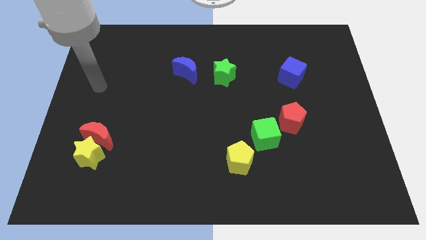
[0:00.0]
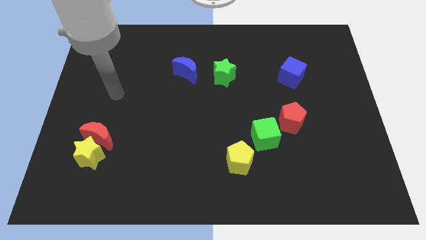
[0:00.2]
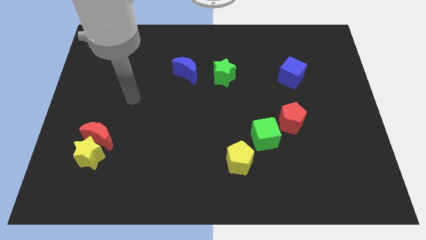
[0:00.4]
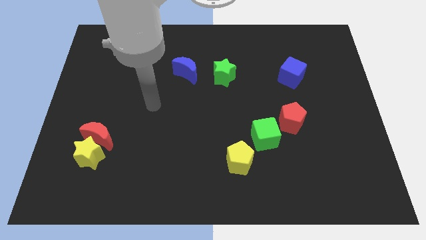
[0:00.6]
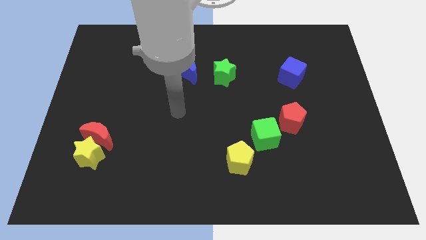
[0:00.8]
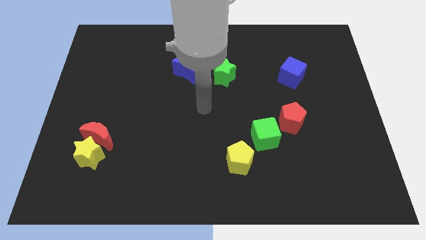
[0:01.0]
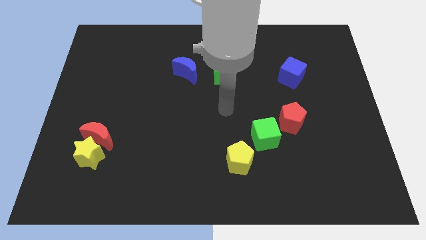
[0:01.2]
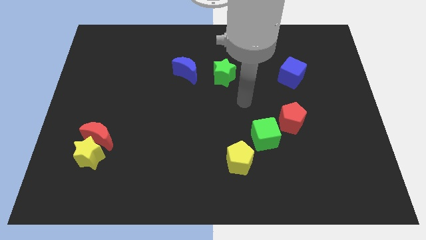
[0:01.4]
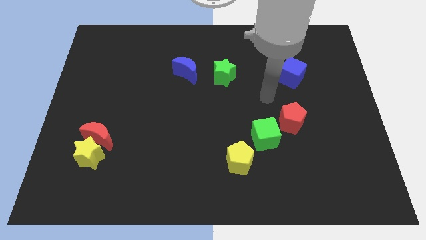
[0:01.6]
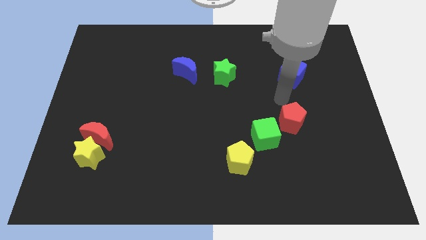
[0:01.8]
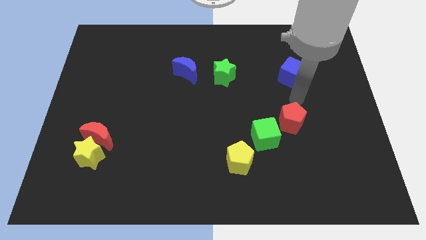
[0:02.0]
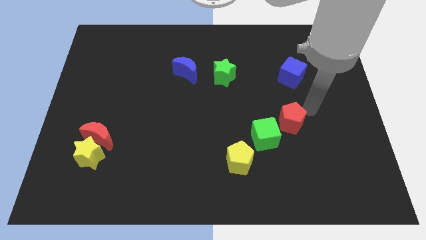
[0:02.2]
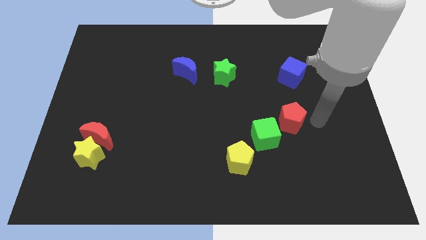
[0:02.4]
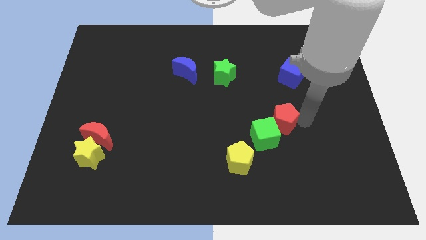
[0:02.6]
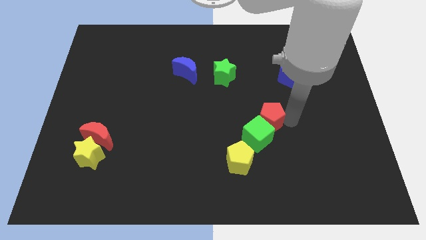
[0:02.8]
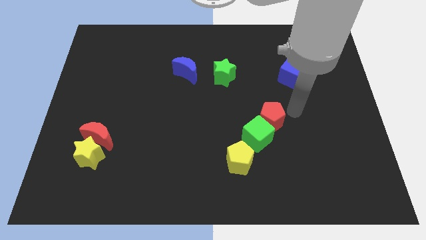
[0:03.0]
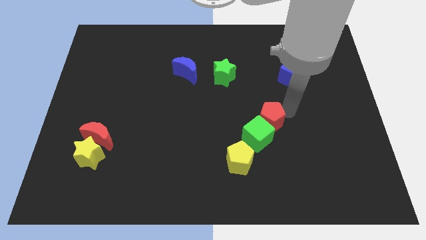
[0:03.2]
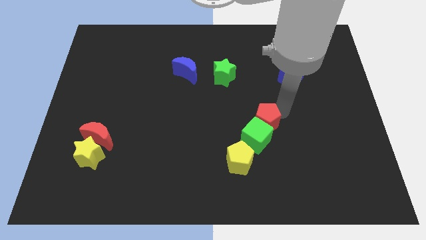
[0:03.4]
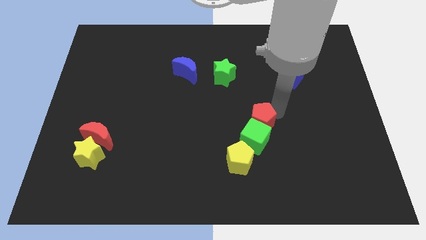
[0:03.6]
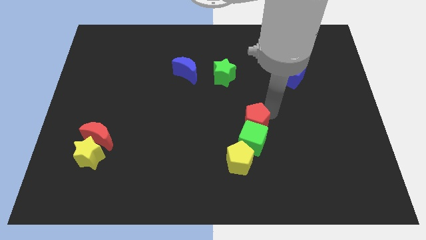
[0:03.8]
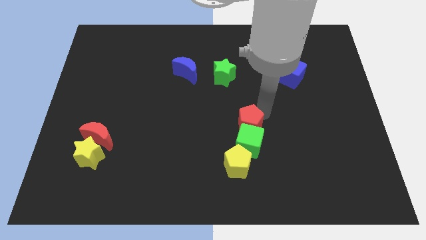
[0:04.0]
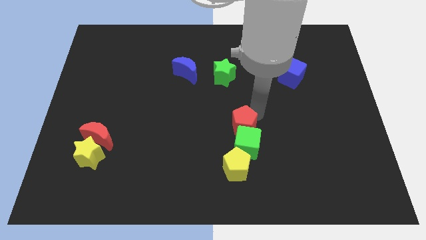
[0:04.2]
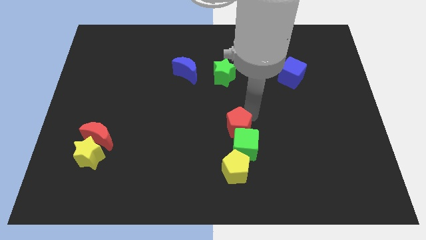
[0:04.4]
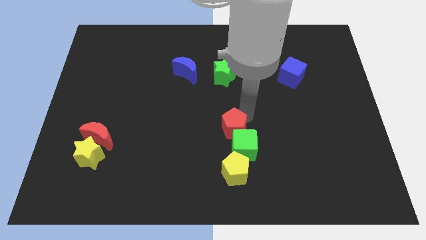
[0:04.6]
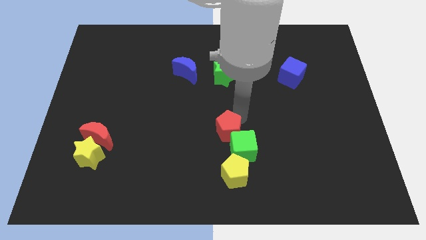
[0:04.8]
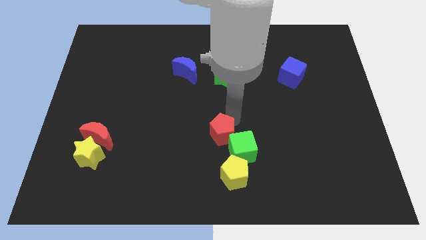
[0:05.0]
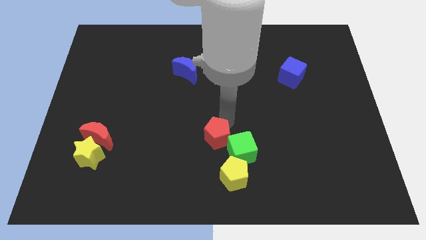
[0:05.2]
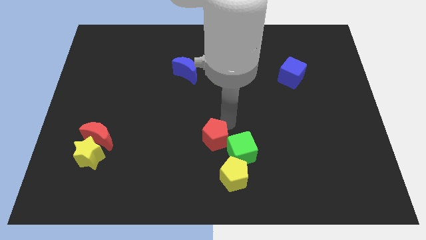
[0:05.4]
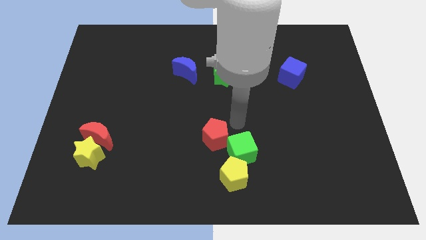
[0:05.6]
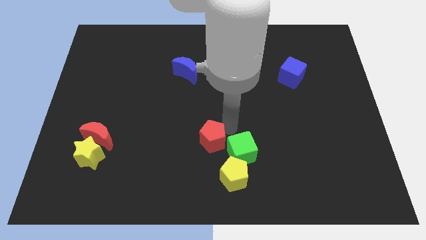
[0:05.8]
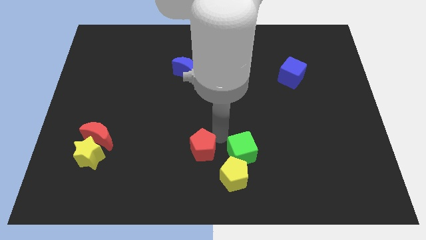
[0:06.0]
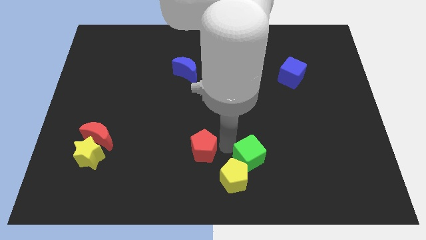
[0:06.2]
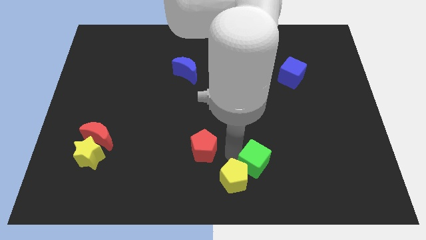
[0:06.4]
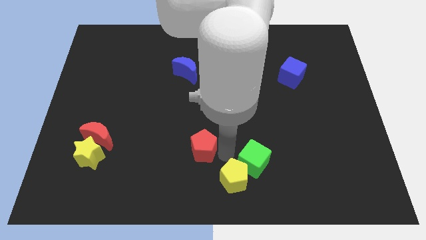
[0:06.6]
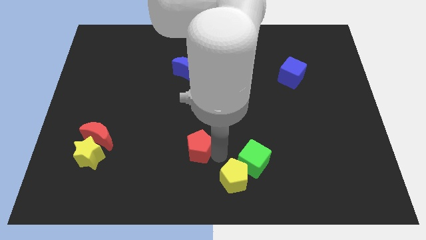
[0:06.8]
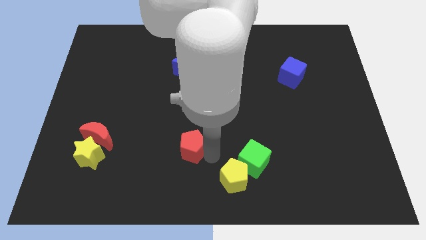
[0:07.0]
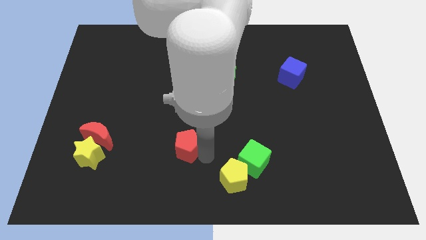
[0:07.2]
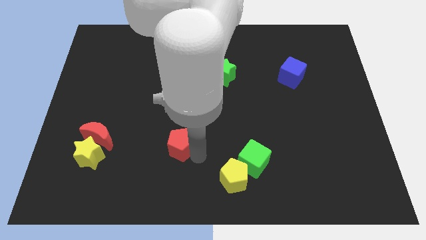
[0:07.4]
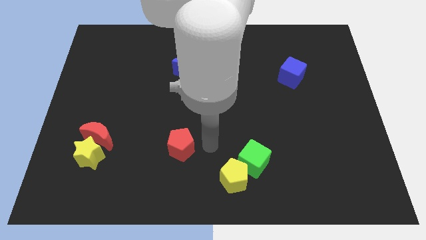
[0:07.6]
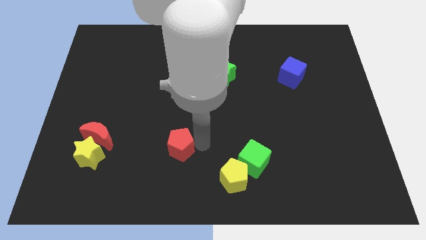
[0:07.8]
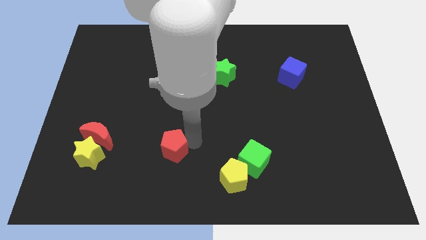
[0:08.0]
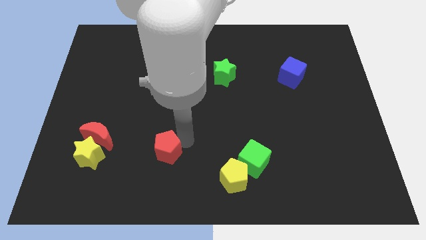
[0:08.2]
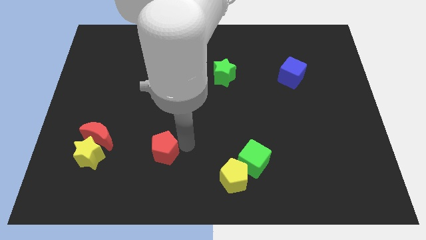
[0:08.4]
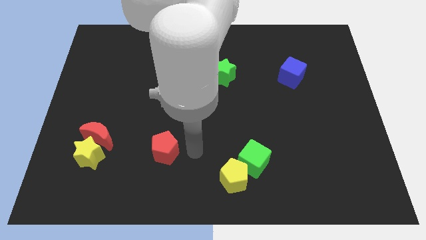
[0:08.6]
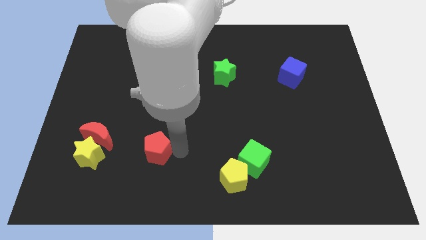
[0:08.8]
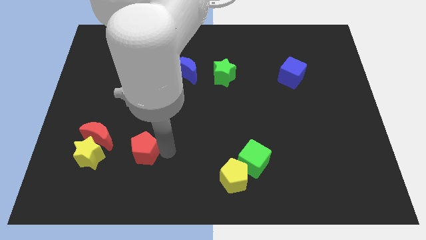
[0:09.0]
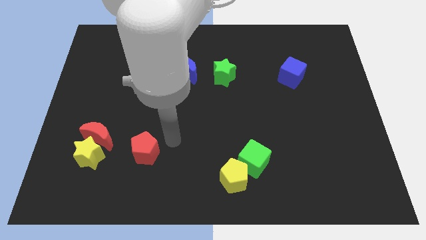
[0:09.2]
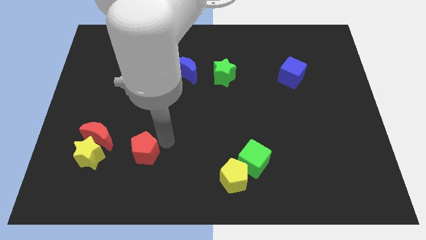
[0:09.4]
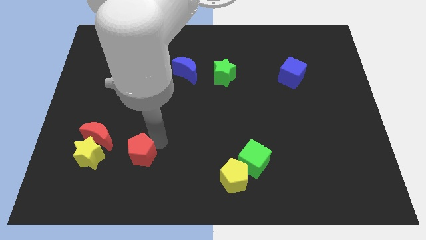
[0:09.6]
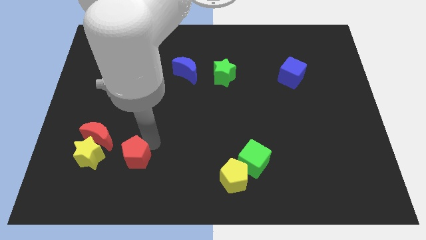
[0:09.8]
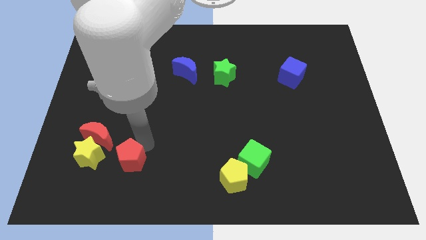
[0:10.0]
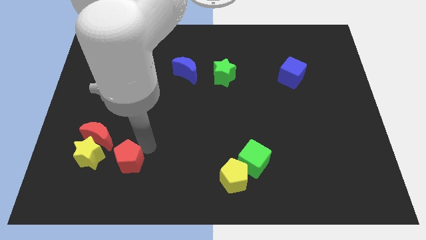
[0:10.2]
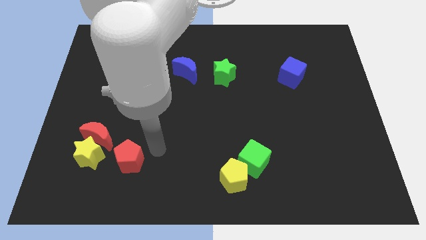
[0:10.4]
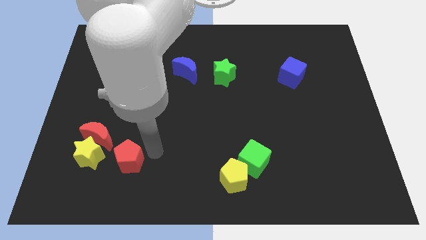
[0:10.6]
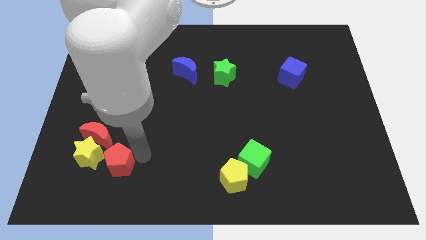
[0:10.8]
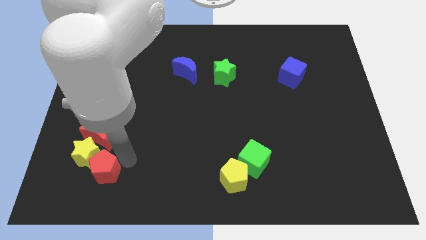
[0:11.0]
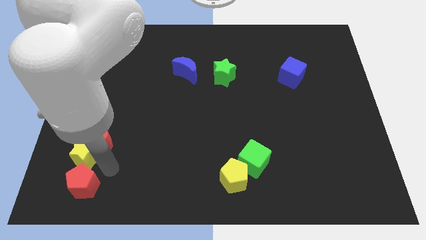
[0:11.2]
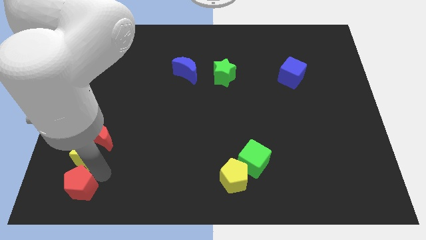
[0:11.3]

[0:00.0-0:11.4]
slide the red pentagon to the bottom left
